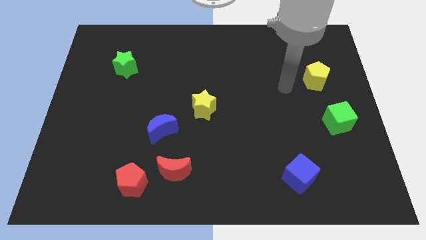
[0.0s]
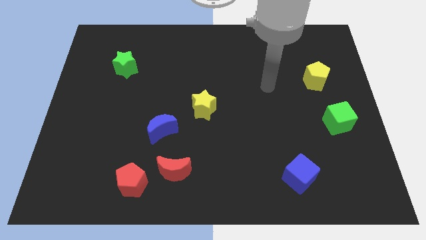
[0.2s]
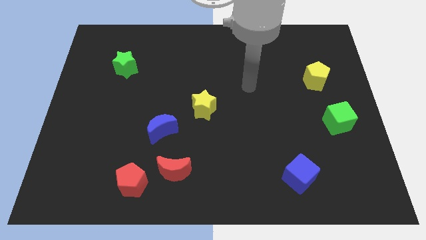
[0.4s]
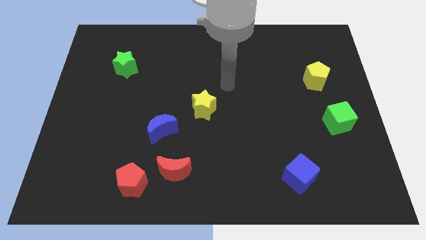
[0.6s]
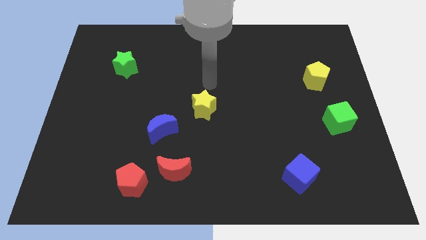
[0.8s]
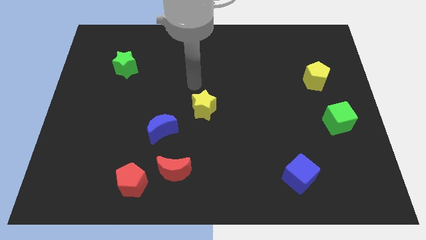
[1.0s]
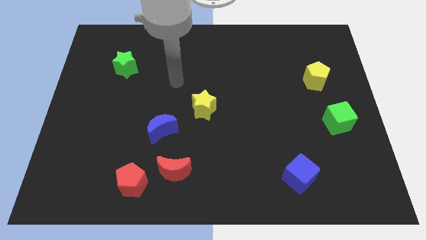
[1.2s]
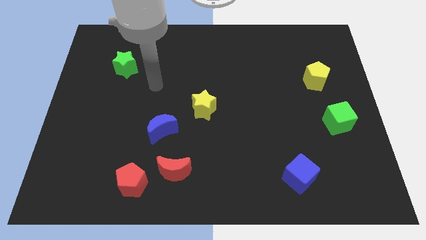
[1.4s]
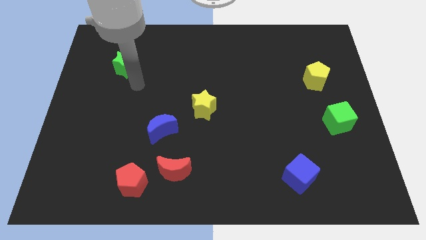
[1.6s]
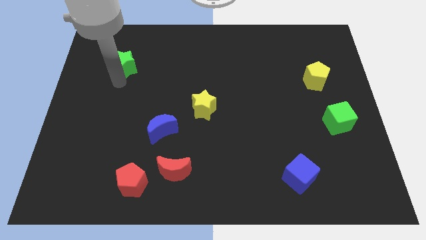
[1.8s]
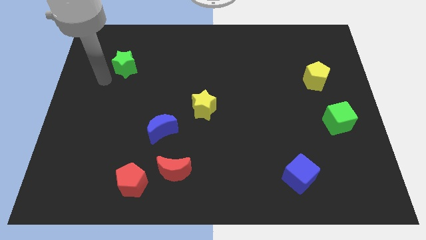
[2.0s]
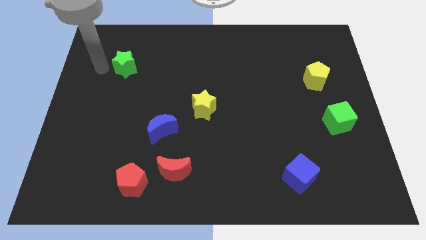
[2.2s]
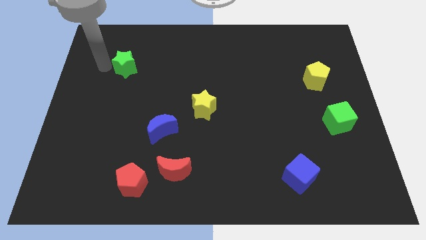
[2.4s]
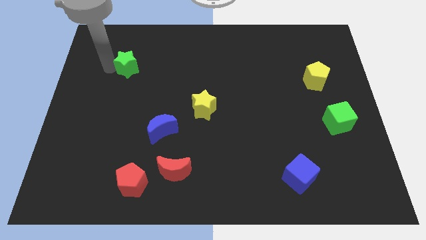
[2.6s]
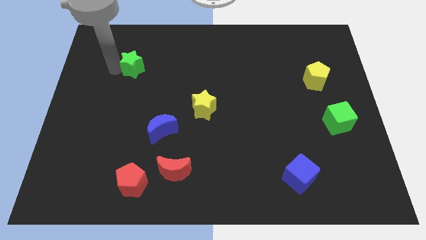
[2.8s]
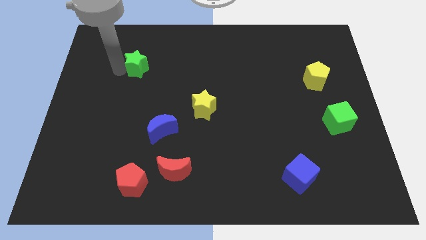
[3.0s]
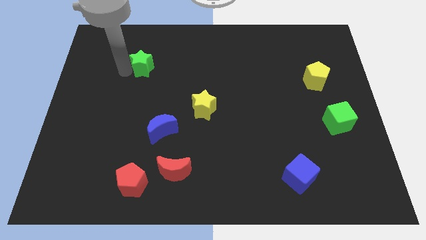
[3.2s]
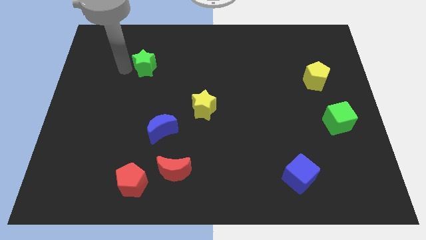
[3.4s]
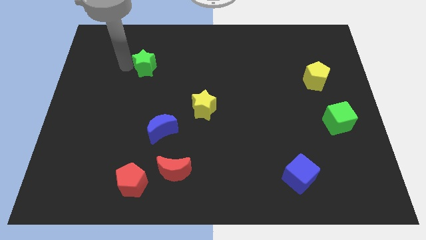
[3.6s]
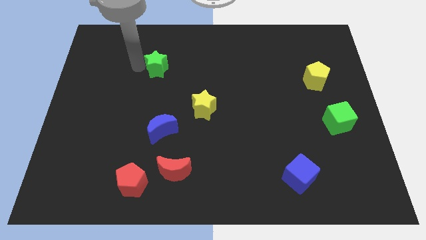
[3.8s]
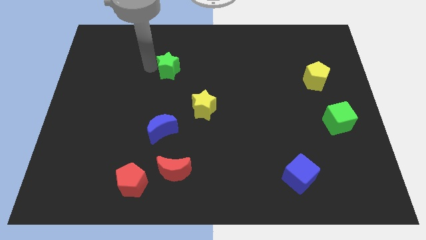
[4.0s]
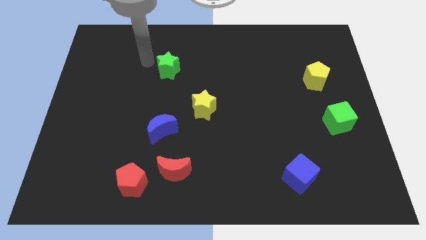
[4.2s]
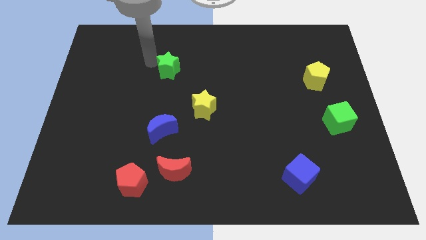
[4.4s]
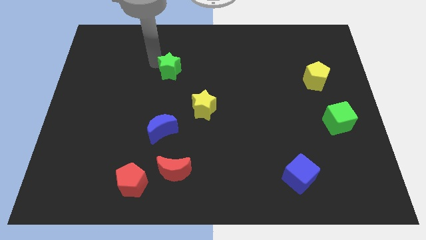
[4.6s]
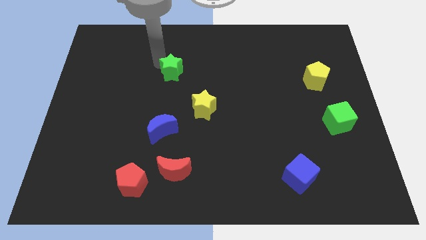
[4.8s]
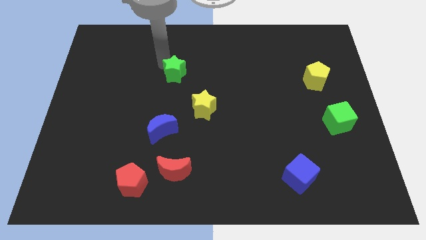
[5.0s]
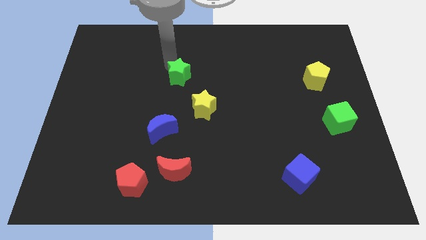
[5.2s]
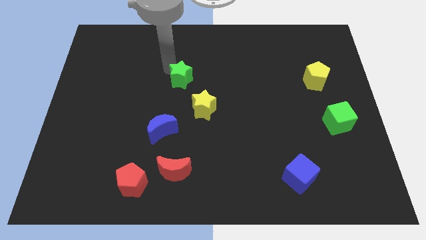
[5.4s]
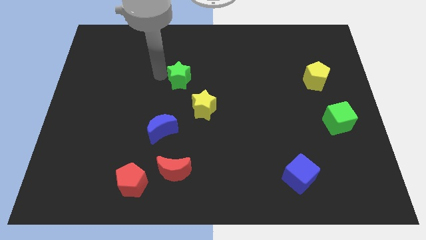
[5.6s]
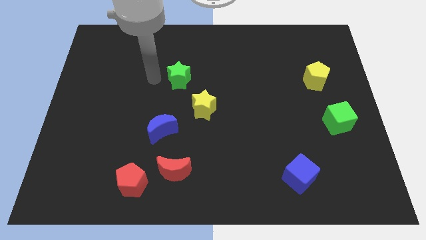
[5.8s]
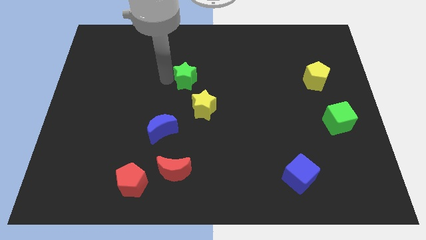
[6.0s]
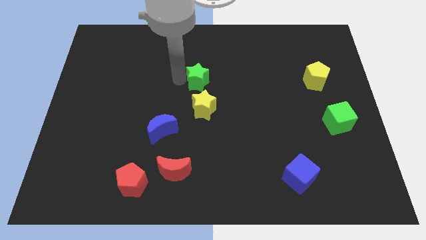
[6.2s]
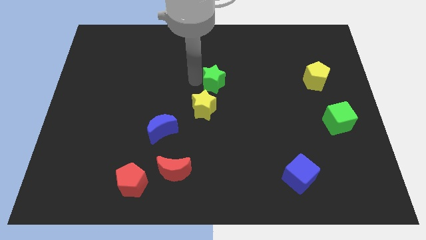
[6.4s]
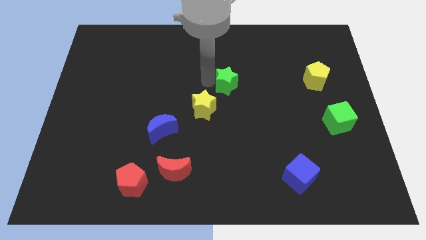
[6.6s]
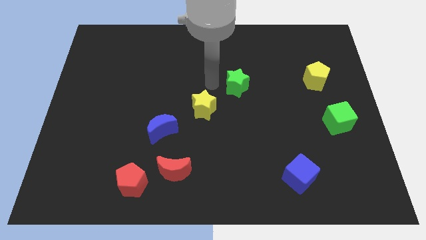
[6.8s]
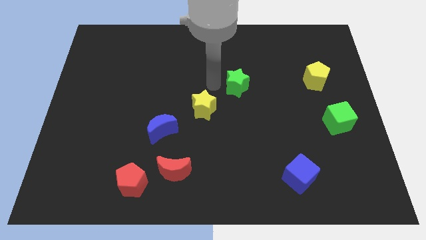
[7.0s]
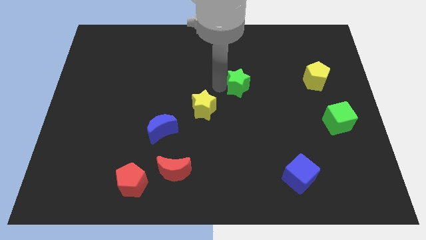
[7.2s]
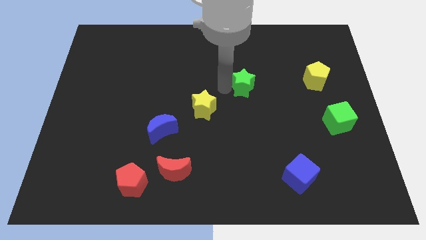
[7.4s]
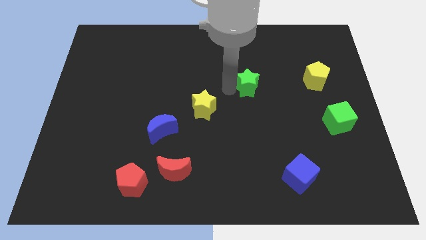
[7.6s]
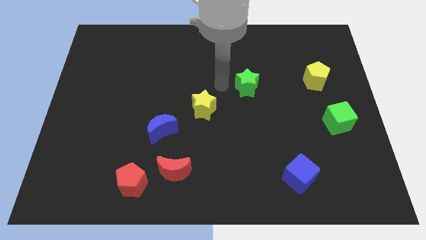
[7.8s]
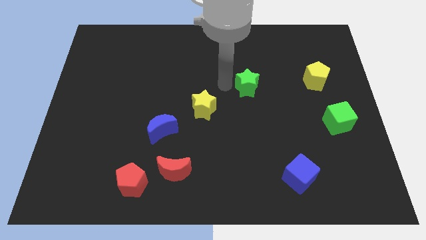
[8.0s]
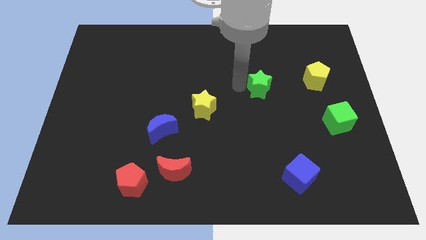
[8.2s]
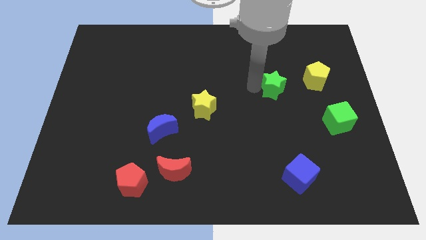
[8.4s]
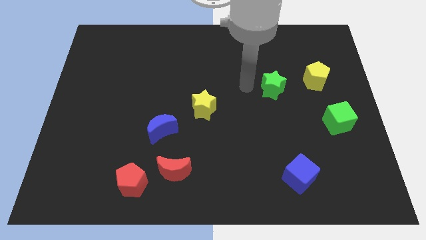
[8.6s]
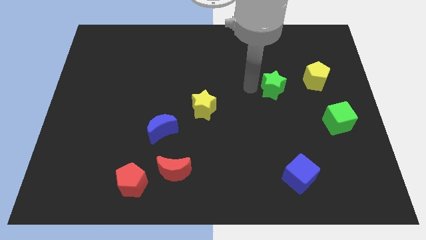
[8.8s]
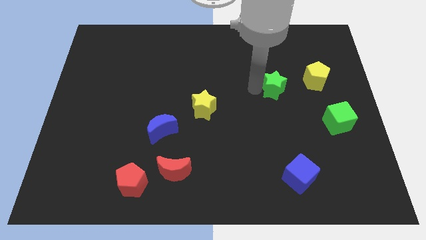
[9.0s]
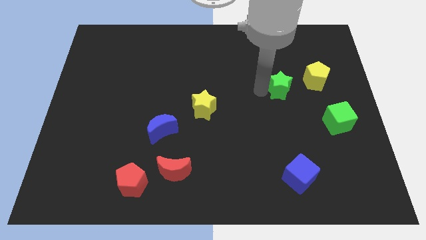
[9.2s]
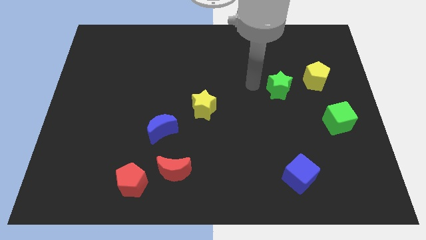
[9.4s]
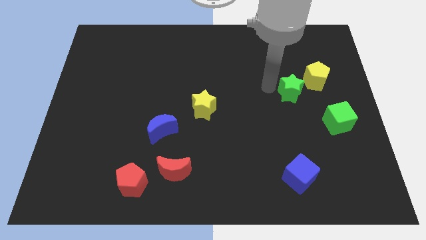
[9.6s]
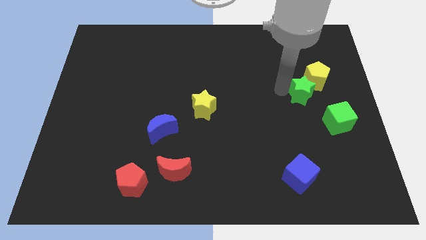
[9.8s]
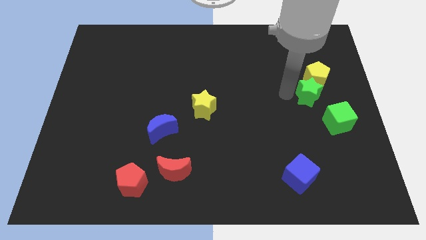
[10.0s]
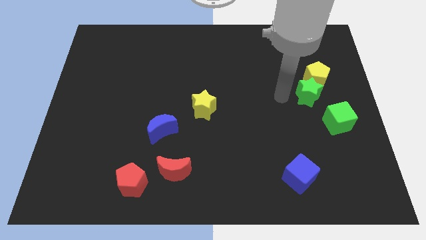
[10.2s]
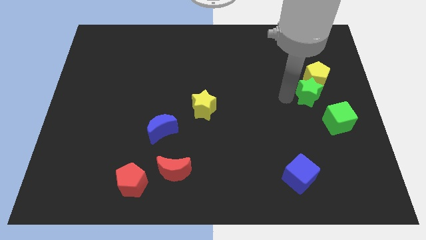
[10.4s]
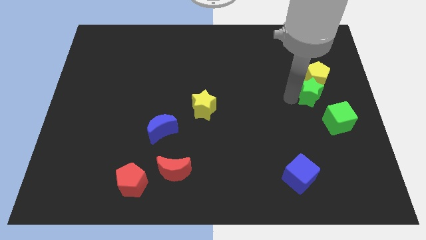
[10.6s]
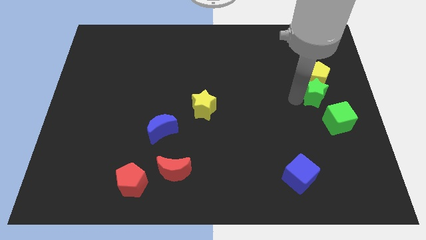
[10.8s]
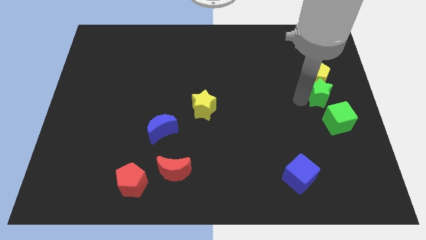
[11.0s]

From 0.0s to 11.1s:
push the green star to the center right
